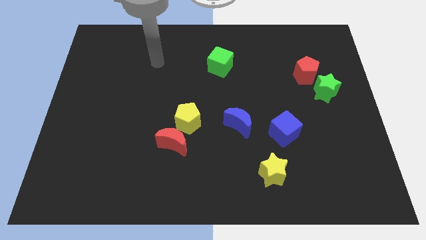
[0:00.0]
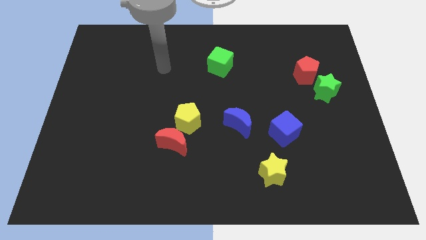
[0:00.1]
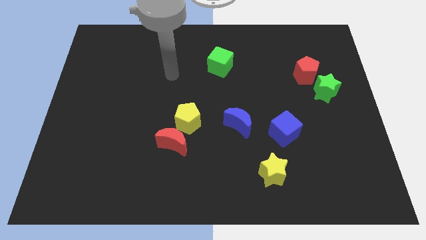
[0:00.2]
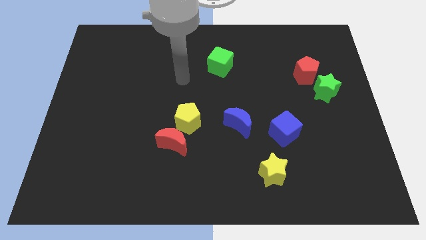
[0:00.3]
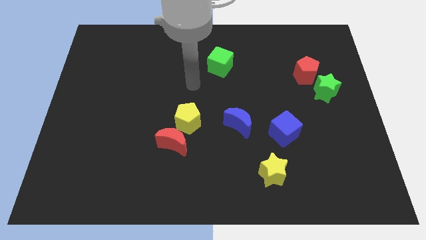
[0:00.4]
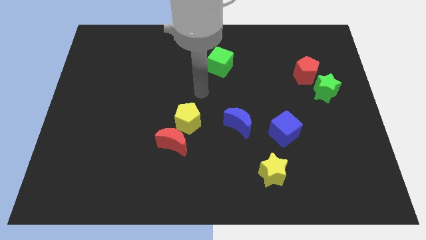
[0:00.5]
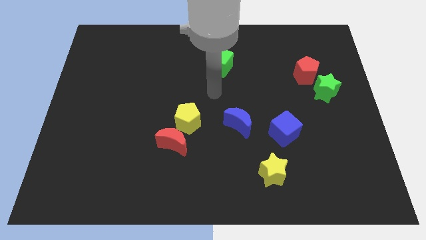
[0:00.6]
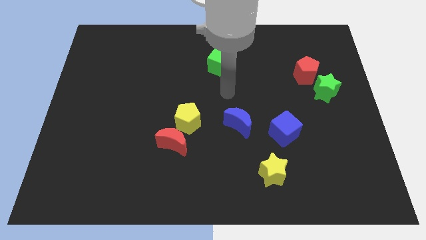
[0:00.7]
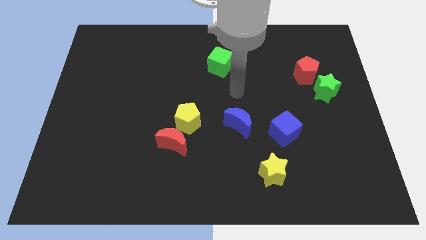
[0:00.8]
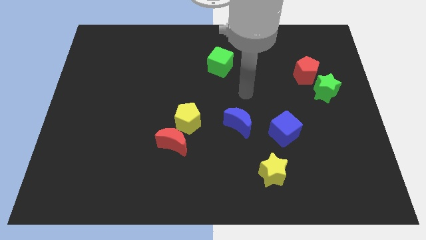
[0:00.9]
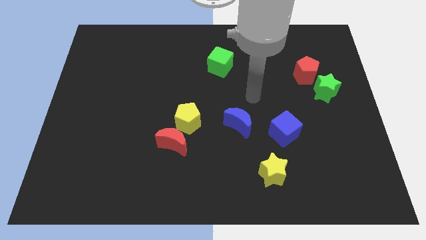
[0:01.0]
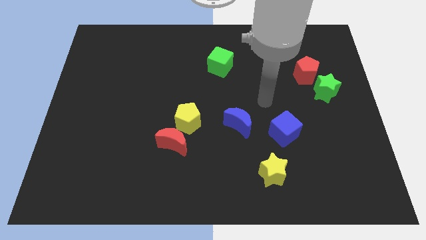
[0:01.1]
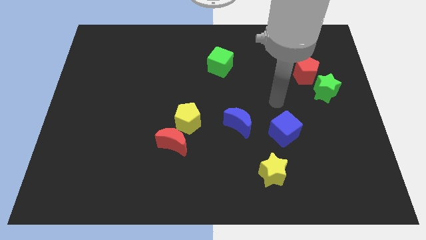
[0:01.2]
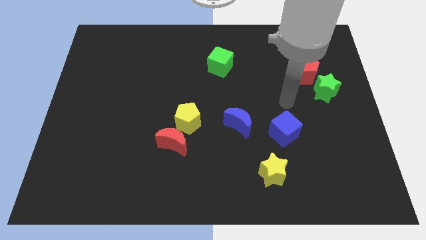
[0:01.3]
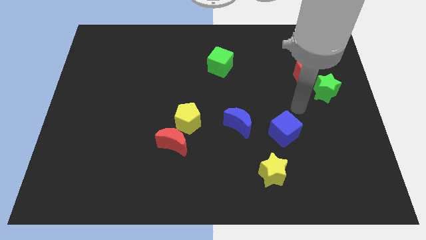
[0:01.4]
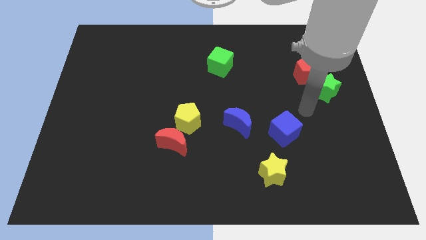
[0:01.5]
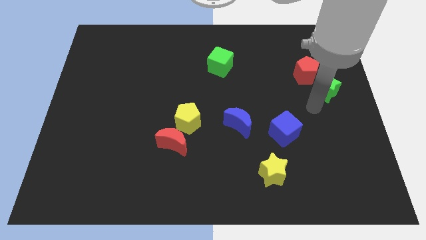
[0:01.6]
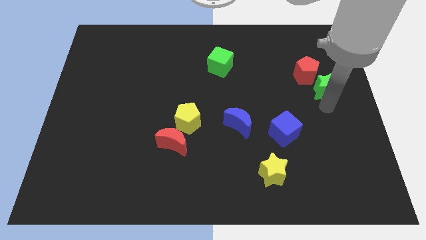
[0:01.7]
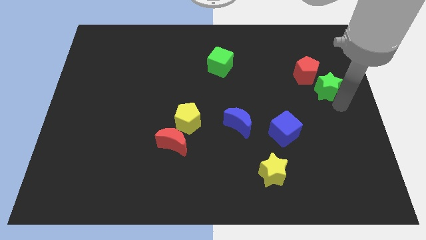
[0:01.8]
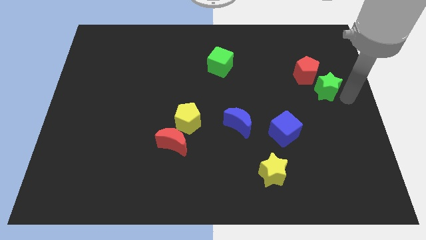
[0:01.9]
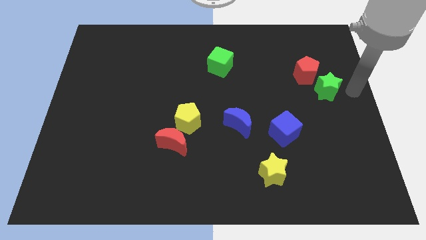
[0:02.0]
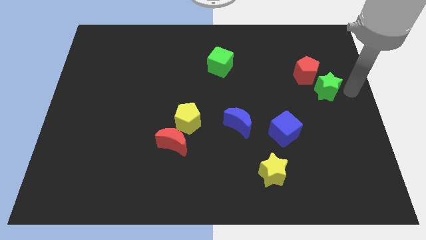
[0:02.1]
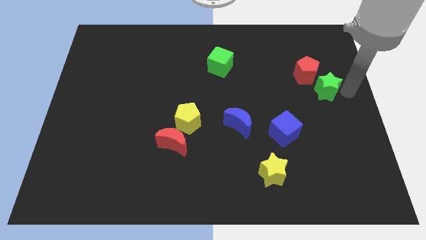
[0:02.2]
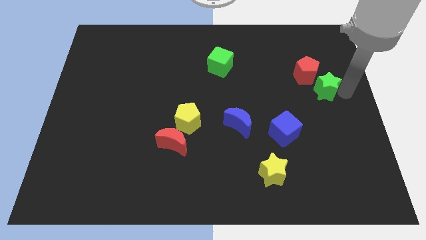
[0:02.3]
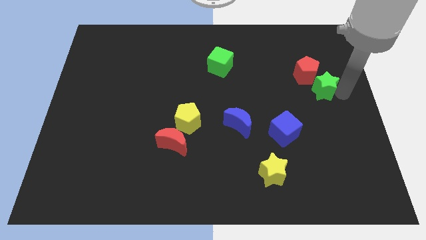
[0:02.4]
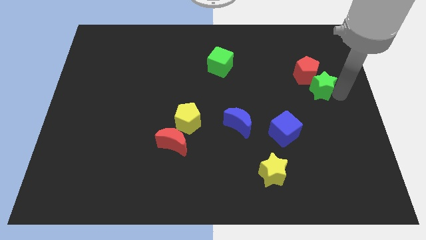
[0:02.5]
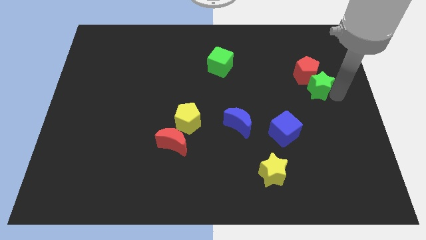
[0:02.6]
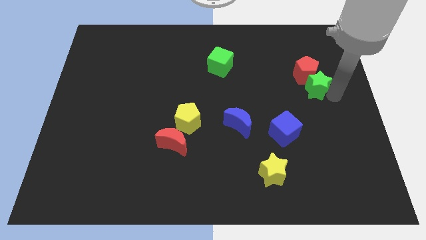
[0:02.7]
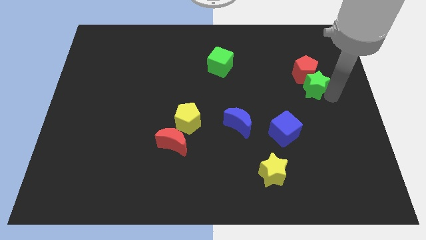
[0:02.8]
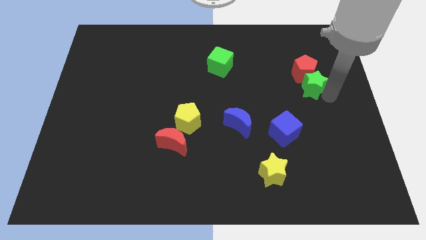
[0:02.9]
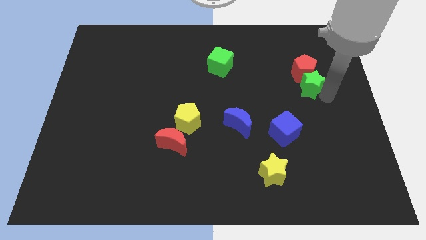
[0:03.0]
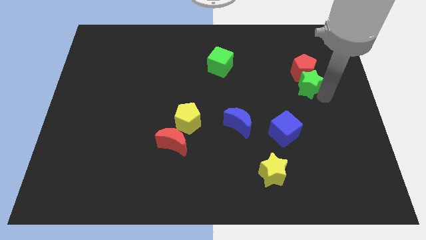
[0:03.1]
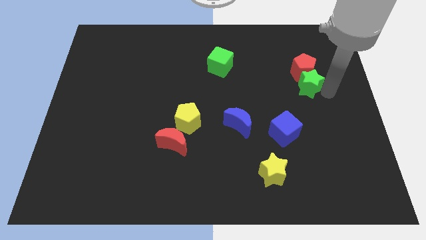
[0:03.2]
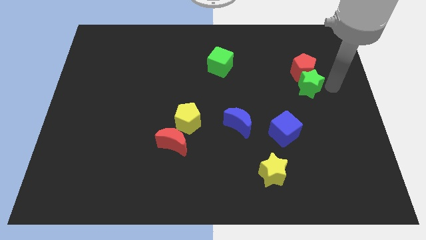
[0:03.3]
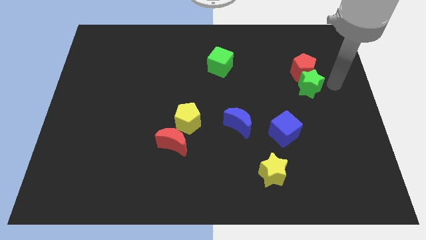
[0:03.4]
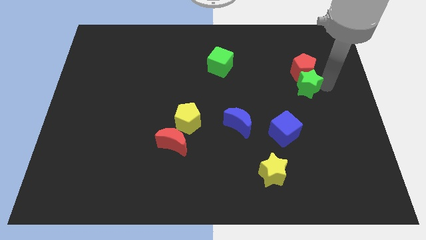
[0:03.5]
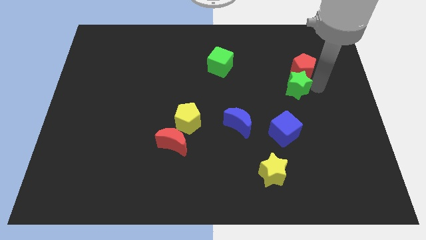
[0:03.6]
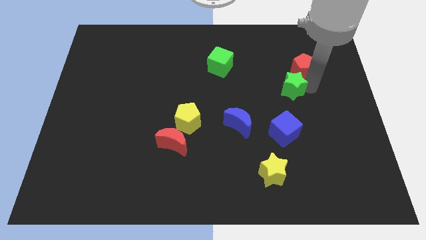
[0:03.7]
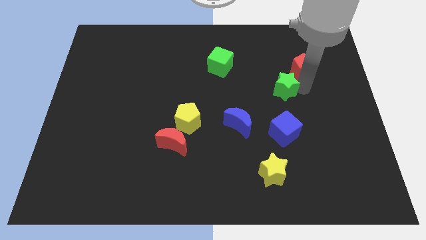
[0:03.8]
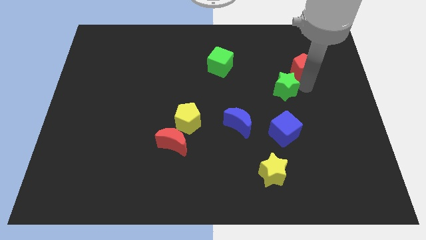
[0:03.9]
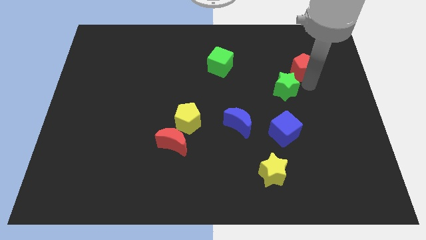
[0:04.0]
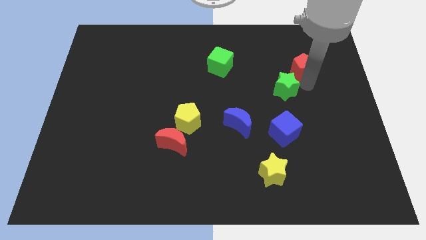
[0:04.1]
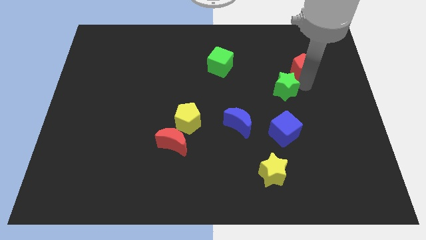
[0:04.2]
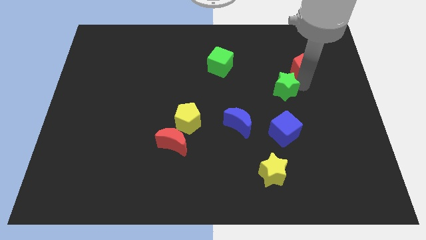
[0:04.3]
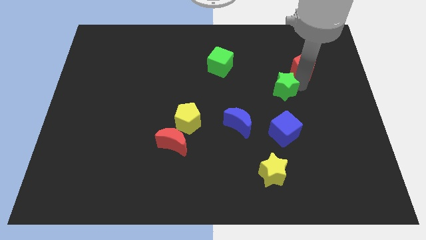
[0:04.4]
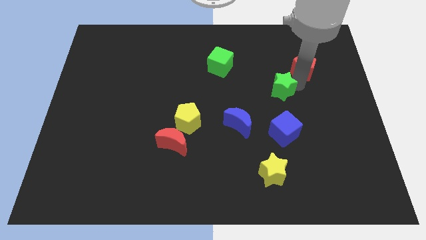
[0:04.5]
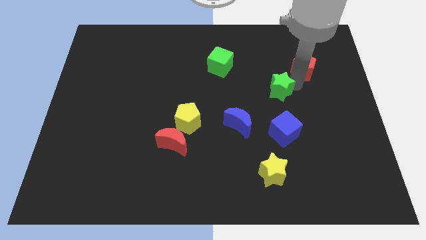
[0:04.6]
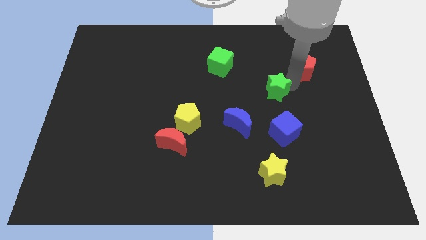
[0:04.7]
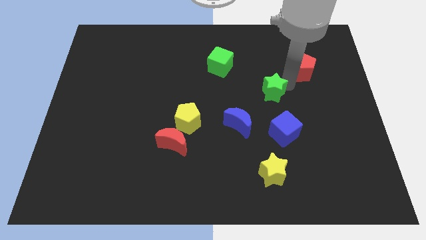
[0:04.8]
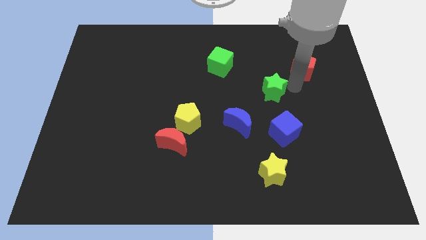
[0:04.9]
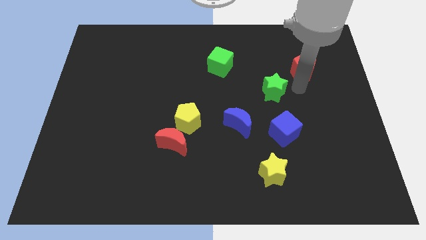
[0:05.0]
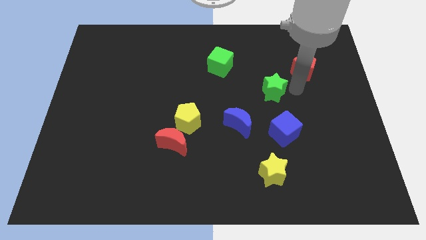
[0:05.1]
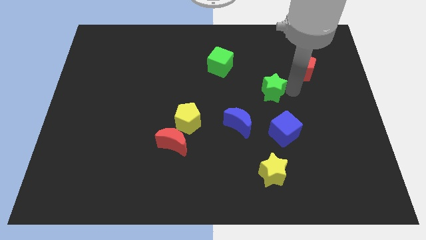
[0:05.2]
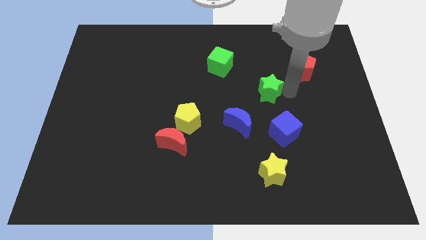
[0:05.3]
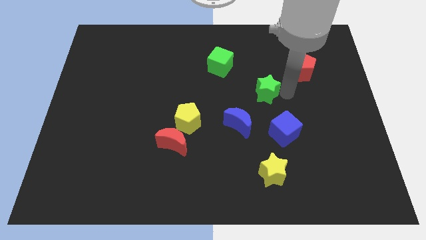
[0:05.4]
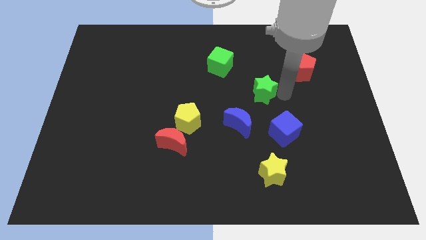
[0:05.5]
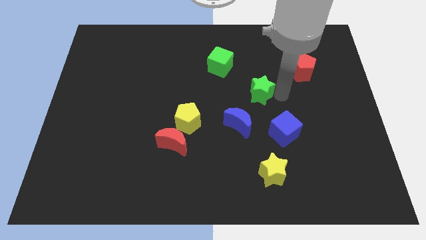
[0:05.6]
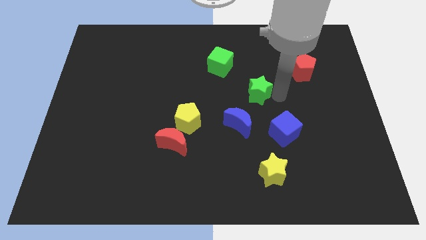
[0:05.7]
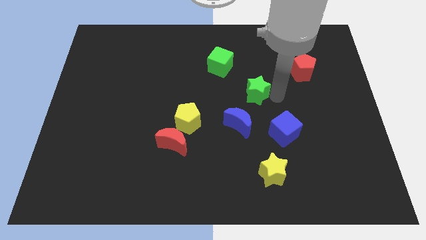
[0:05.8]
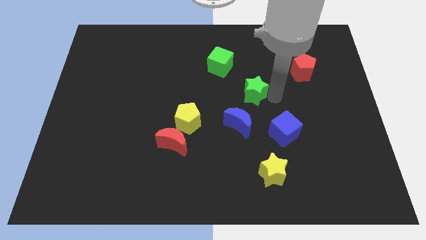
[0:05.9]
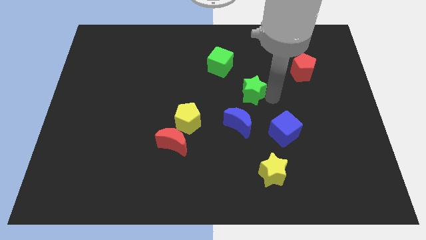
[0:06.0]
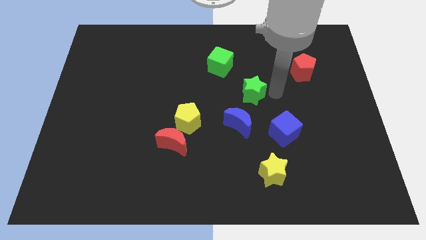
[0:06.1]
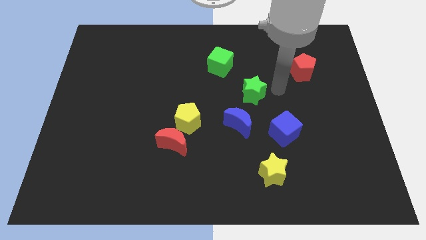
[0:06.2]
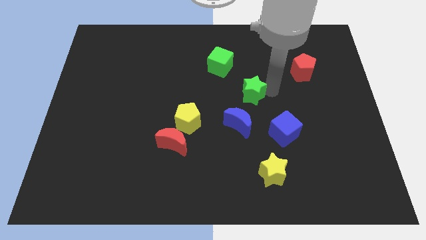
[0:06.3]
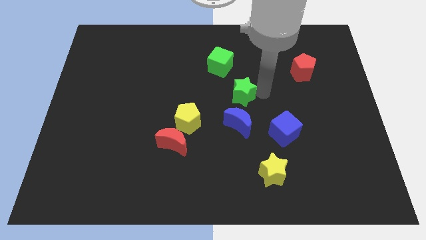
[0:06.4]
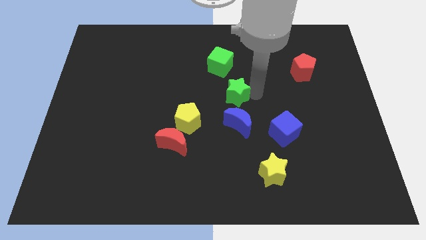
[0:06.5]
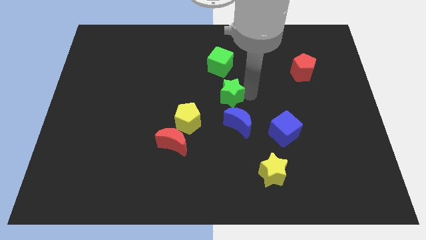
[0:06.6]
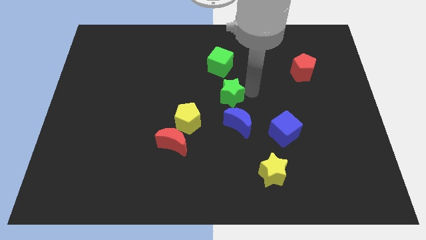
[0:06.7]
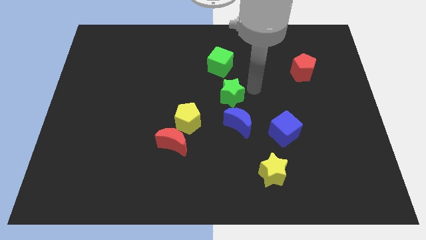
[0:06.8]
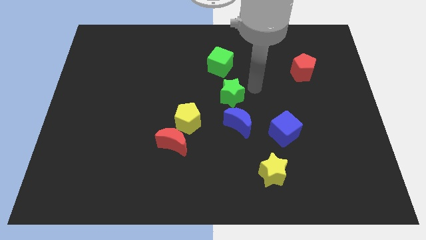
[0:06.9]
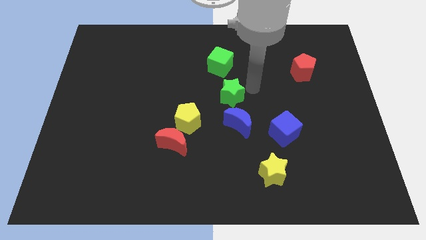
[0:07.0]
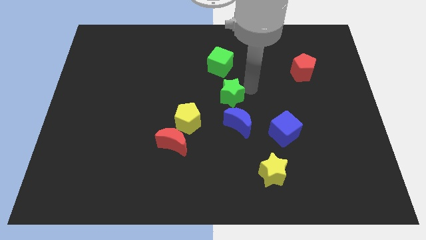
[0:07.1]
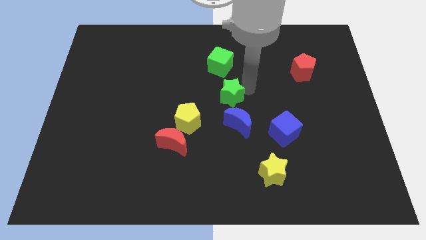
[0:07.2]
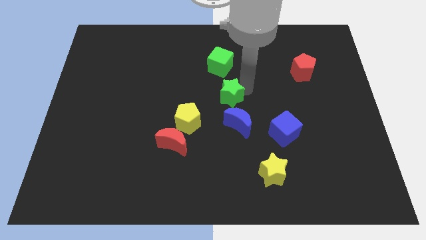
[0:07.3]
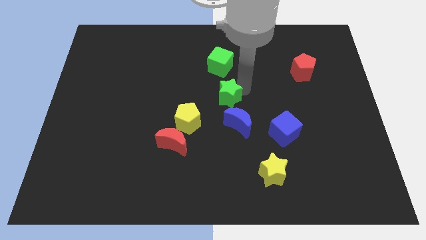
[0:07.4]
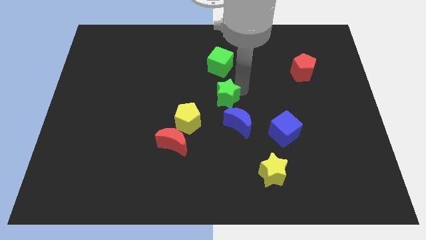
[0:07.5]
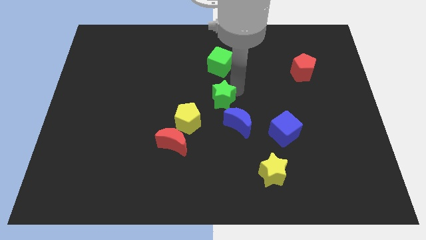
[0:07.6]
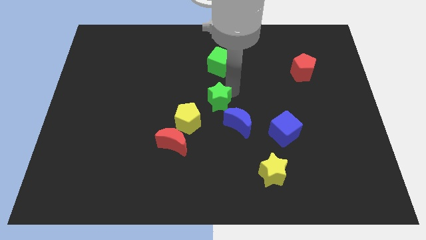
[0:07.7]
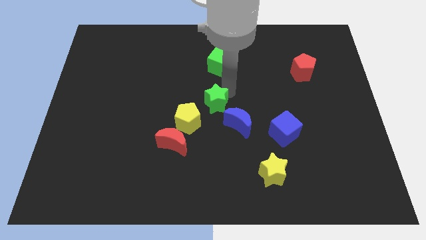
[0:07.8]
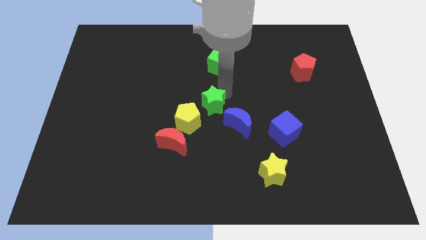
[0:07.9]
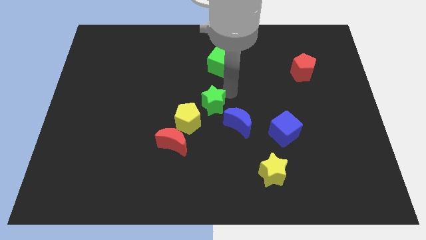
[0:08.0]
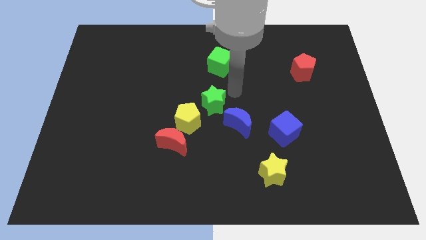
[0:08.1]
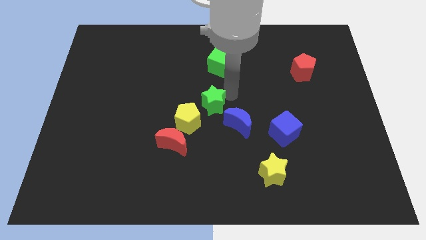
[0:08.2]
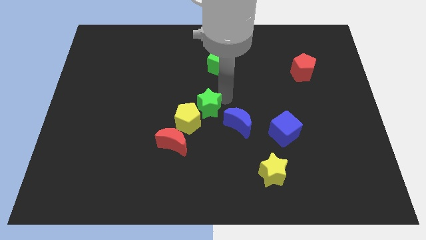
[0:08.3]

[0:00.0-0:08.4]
put the green star close to the yellow pentagon
